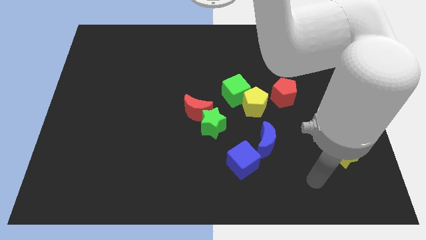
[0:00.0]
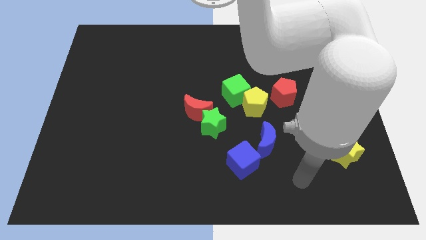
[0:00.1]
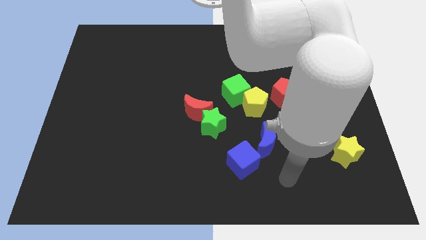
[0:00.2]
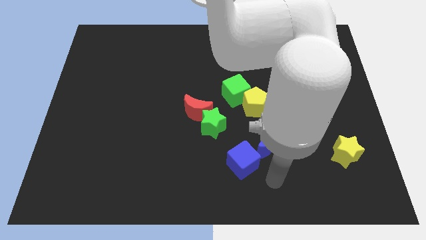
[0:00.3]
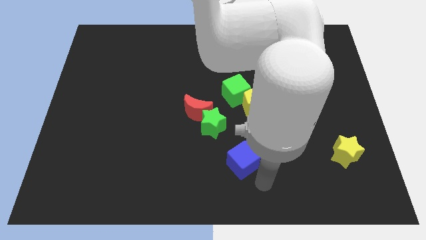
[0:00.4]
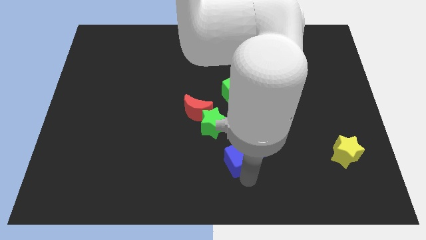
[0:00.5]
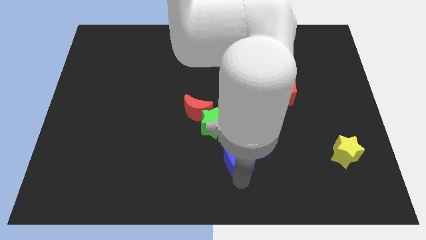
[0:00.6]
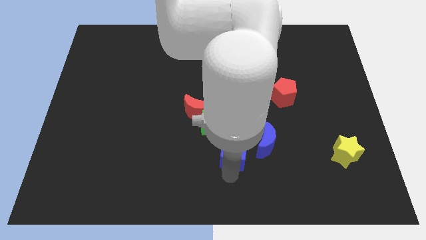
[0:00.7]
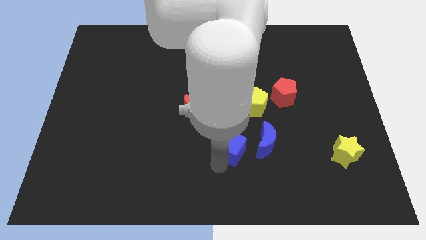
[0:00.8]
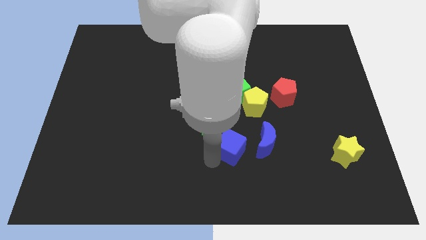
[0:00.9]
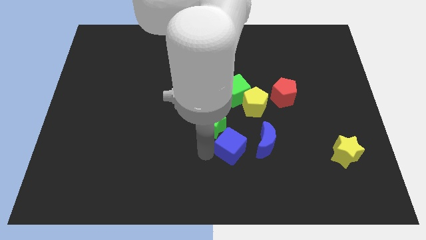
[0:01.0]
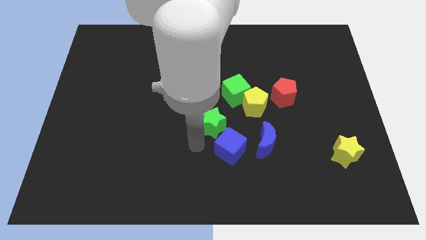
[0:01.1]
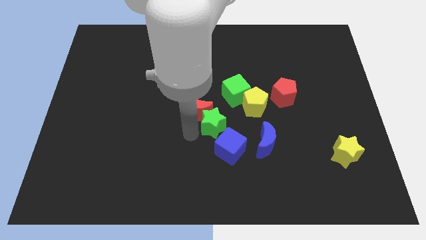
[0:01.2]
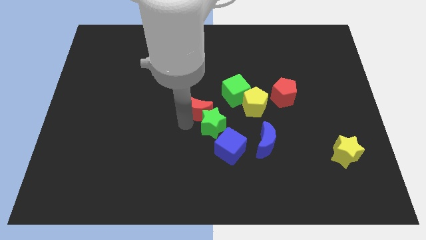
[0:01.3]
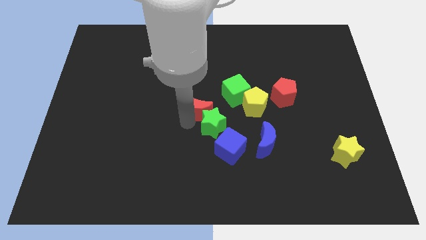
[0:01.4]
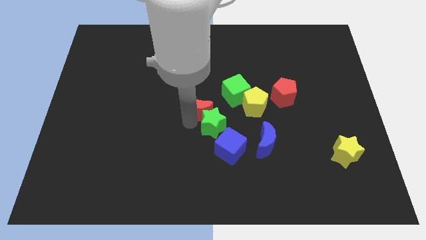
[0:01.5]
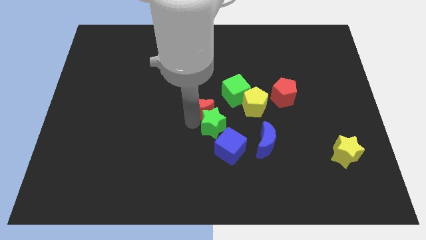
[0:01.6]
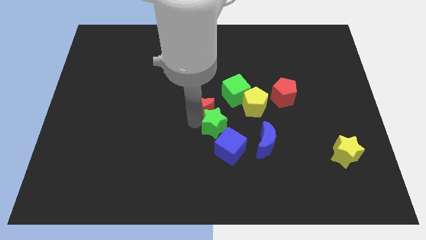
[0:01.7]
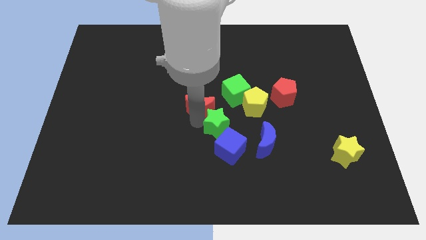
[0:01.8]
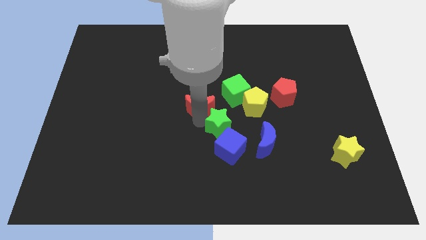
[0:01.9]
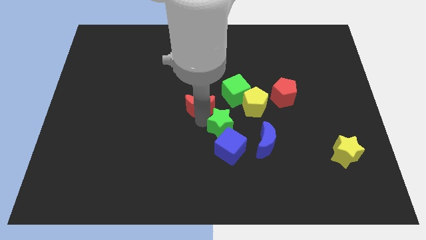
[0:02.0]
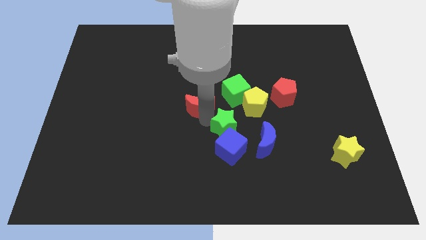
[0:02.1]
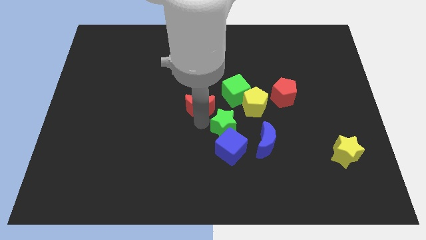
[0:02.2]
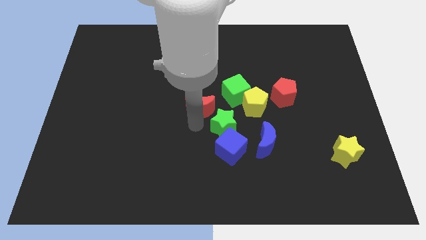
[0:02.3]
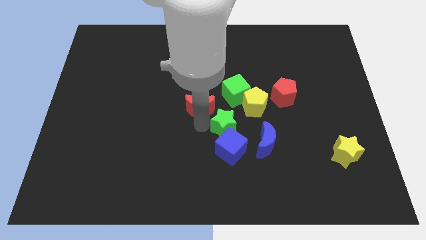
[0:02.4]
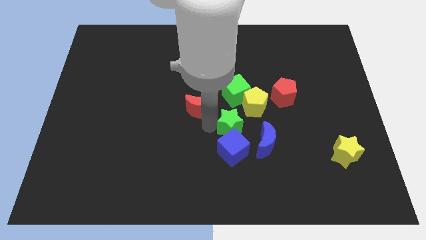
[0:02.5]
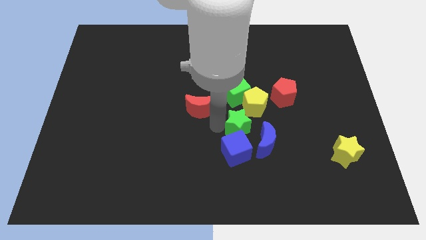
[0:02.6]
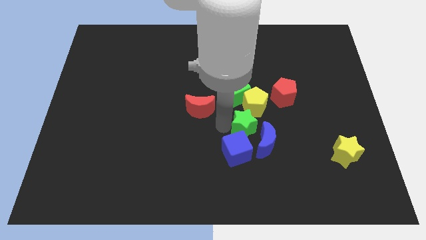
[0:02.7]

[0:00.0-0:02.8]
slightly move the green star right

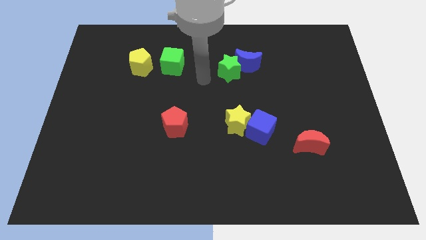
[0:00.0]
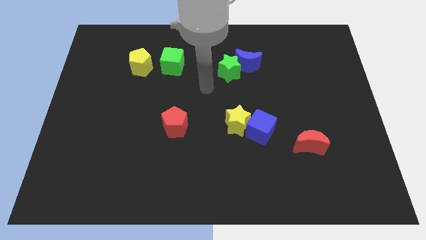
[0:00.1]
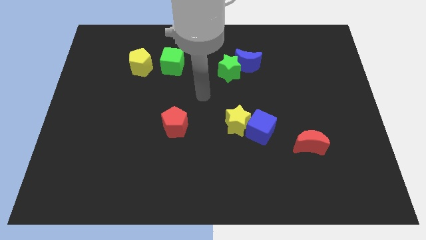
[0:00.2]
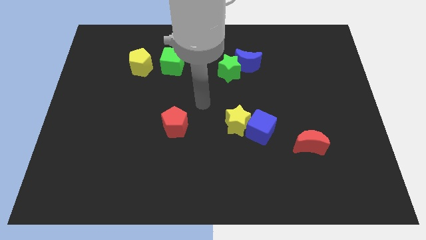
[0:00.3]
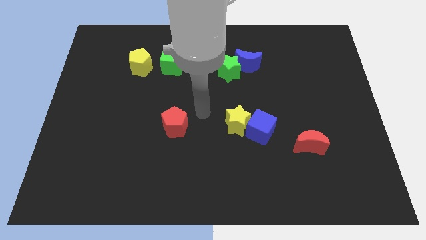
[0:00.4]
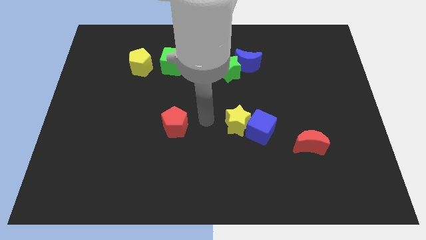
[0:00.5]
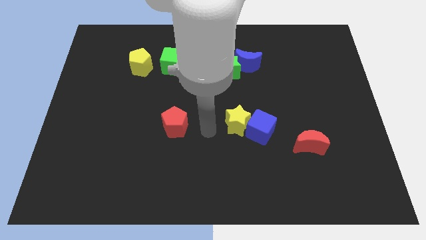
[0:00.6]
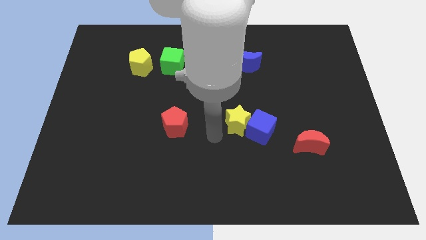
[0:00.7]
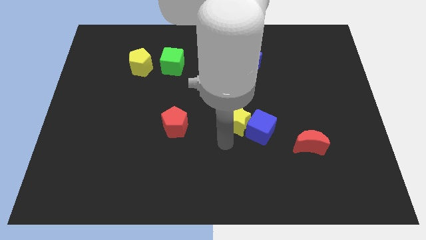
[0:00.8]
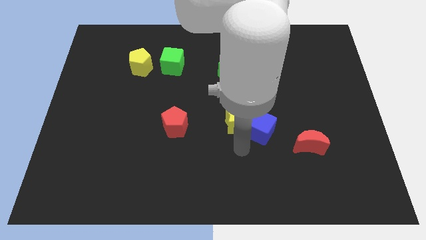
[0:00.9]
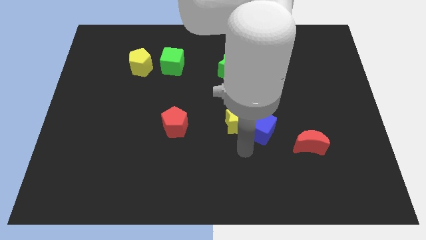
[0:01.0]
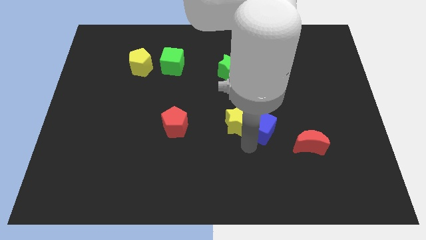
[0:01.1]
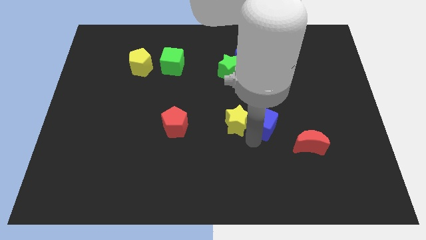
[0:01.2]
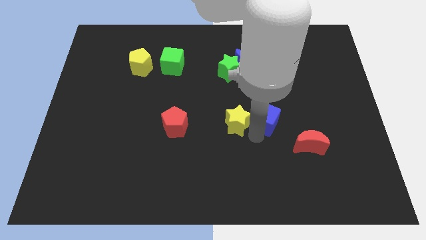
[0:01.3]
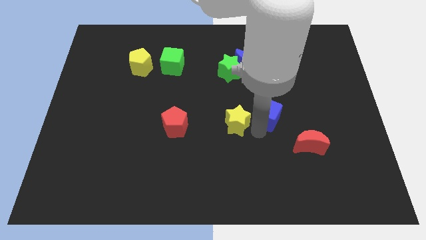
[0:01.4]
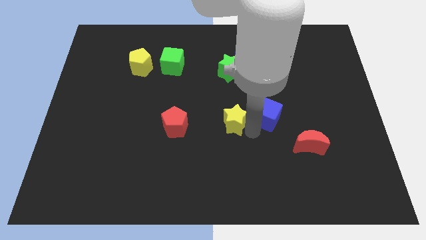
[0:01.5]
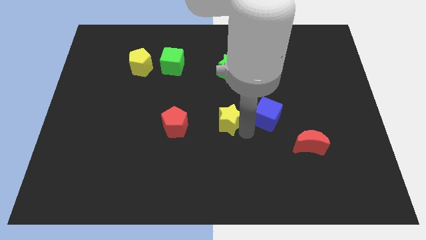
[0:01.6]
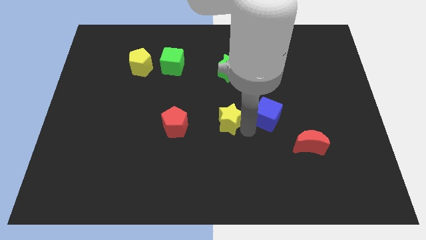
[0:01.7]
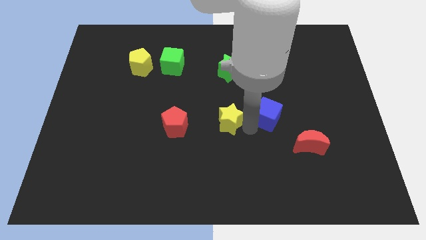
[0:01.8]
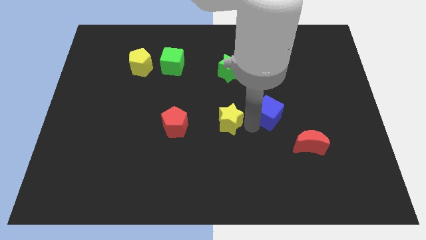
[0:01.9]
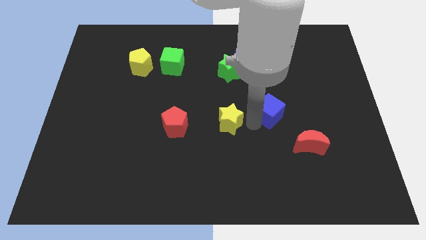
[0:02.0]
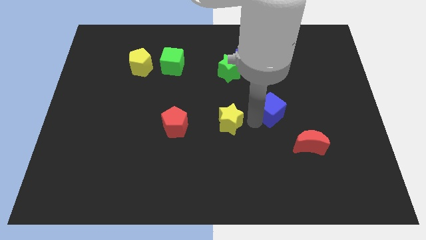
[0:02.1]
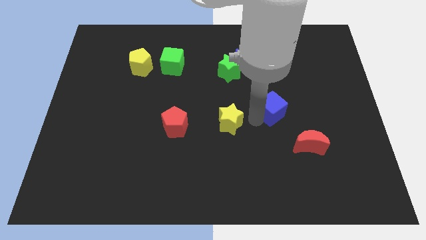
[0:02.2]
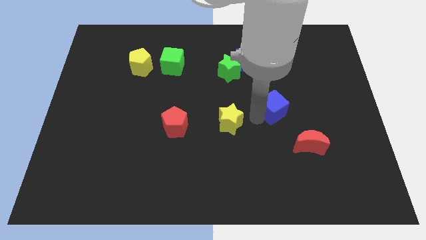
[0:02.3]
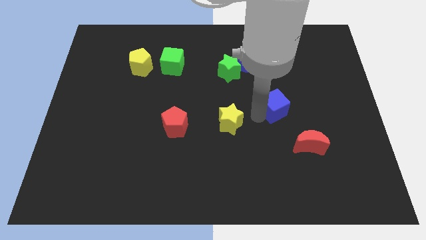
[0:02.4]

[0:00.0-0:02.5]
slide the blue cube a bit upwards and then right

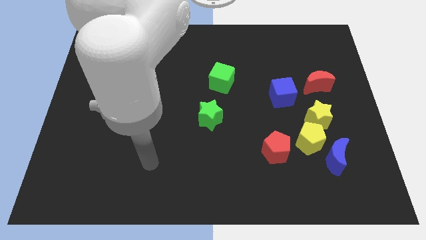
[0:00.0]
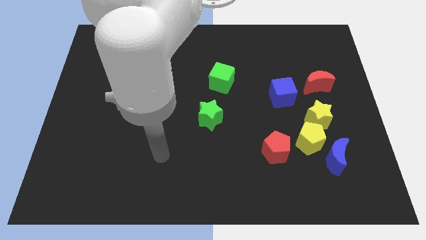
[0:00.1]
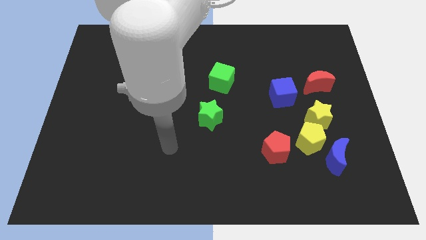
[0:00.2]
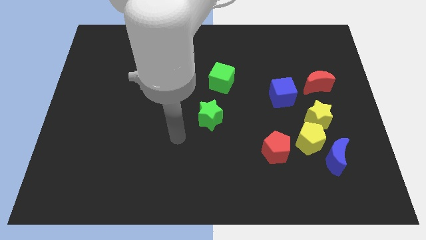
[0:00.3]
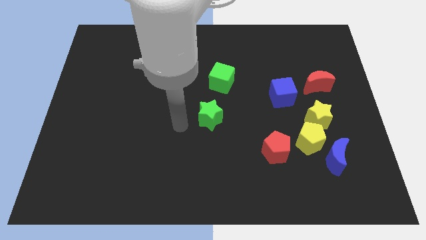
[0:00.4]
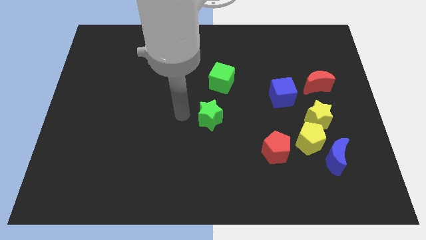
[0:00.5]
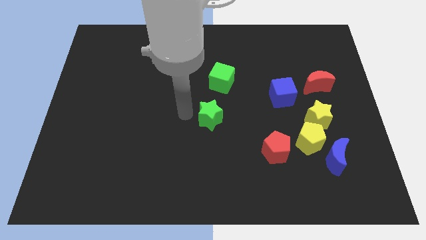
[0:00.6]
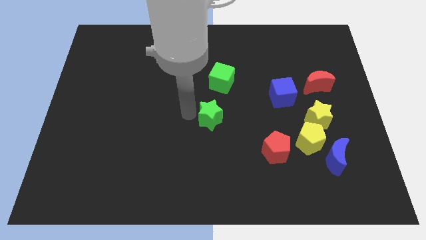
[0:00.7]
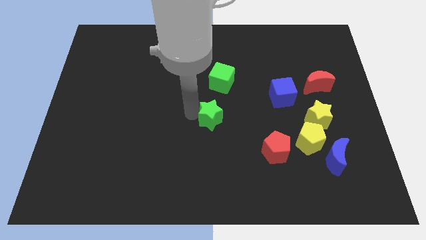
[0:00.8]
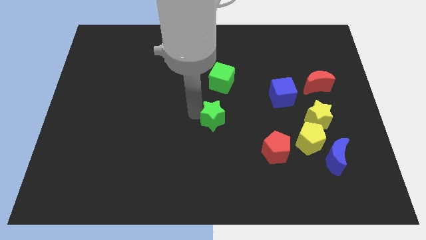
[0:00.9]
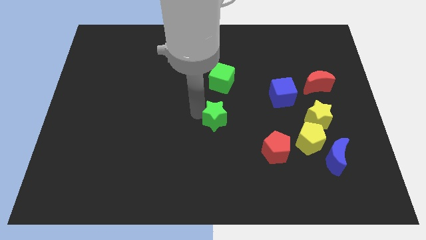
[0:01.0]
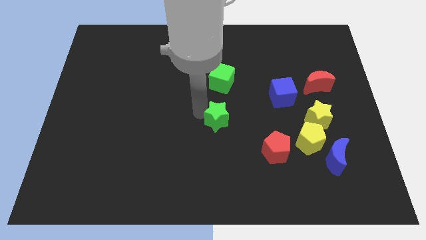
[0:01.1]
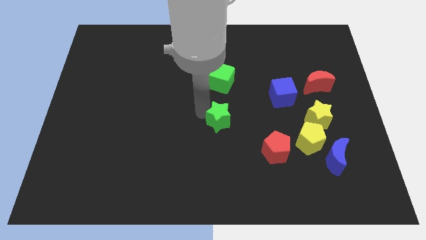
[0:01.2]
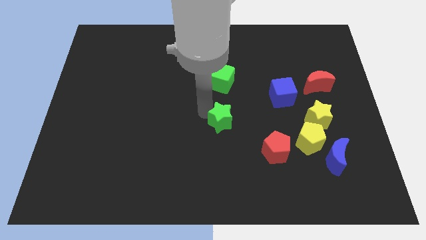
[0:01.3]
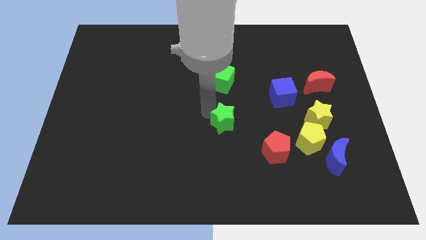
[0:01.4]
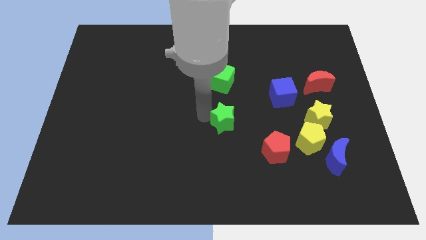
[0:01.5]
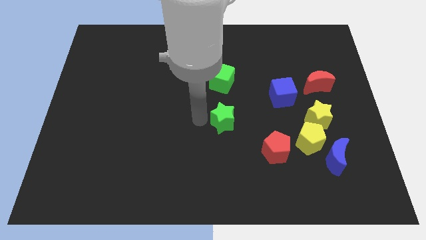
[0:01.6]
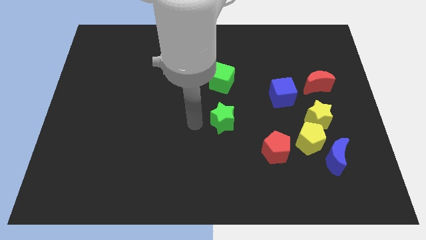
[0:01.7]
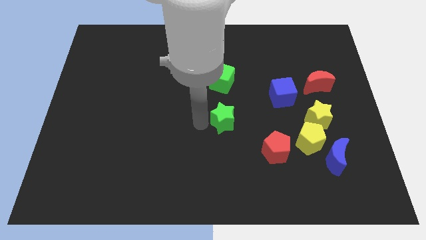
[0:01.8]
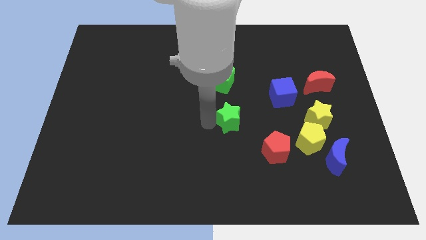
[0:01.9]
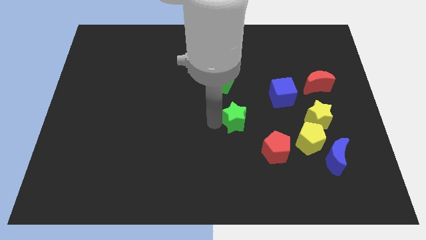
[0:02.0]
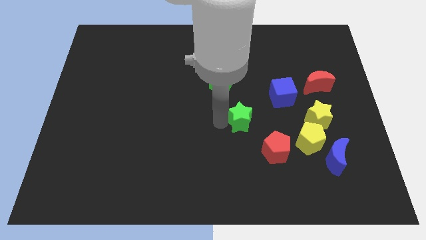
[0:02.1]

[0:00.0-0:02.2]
push the green star to the right a little

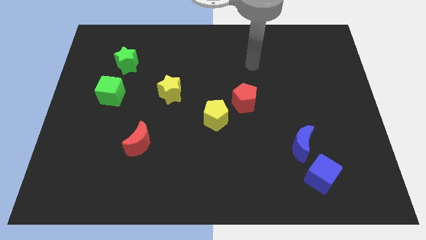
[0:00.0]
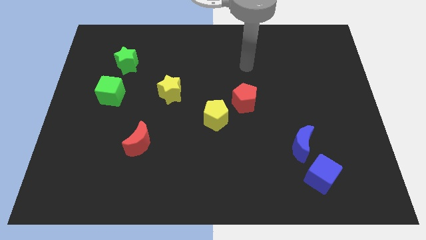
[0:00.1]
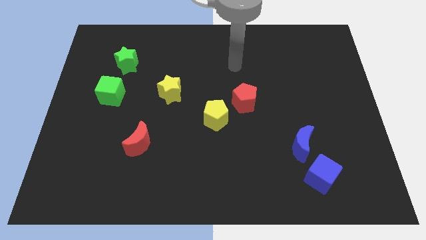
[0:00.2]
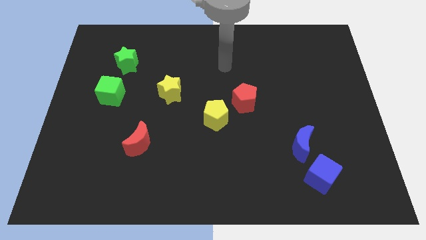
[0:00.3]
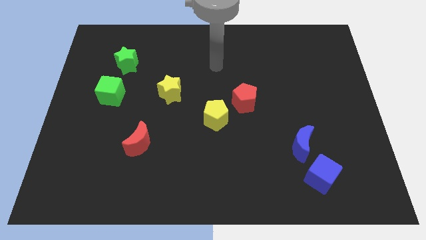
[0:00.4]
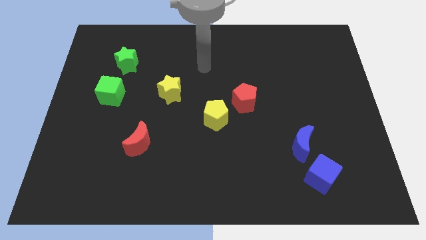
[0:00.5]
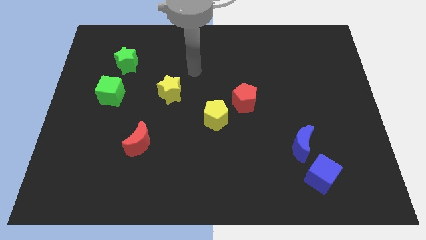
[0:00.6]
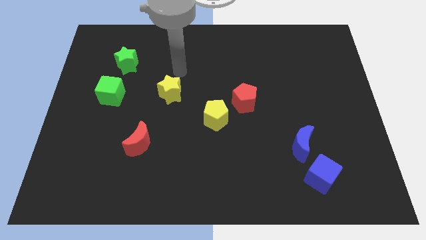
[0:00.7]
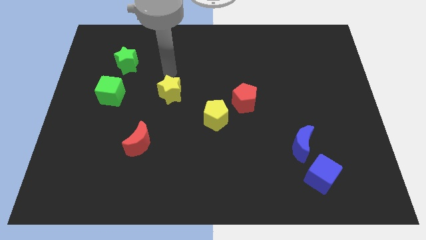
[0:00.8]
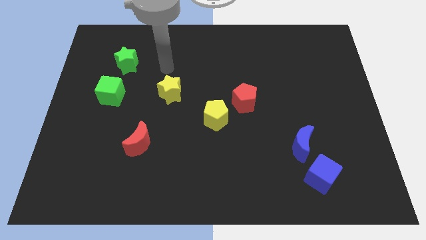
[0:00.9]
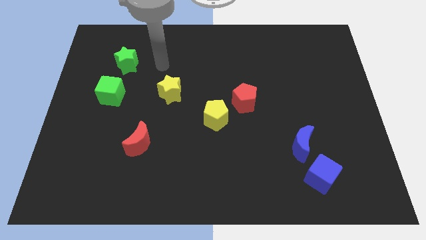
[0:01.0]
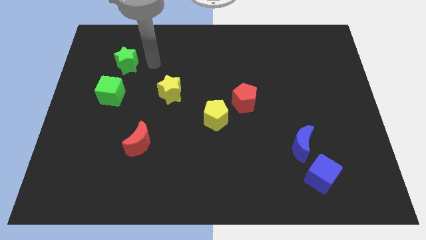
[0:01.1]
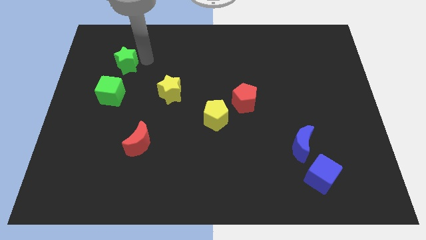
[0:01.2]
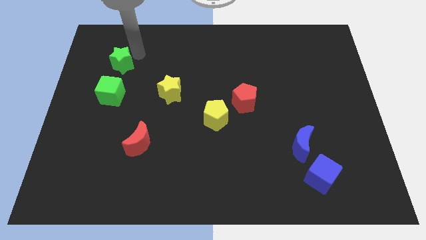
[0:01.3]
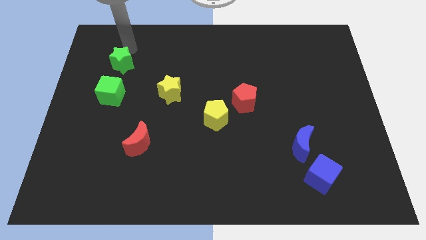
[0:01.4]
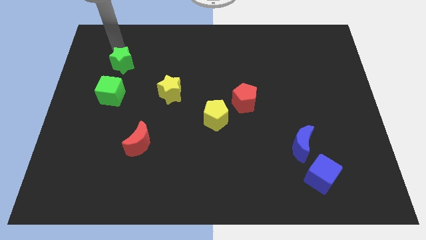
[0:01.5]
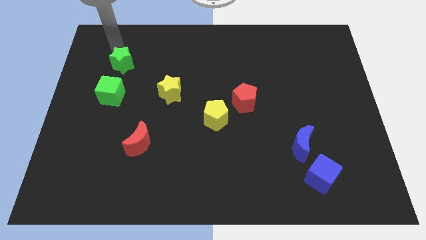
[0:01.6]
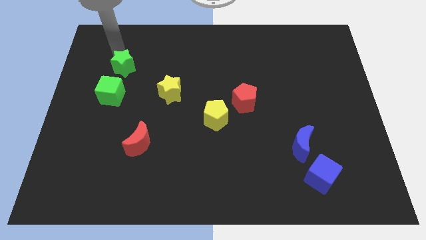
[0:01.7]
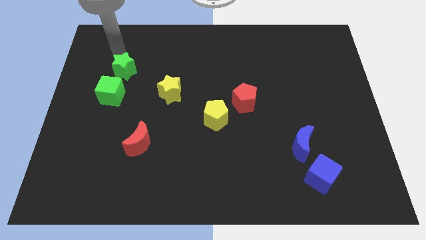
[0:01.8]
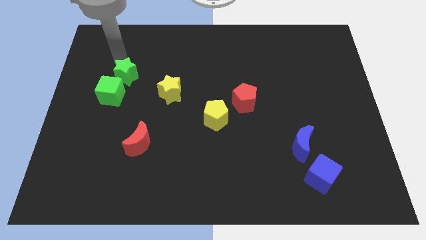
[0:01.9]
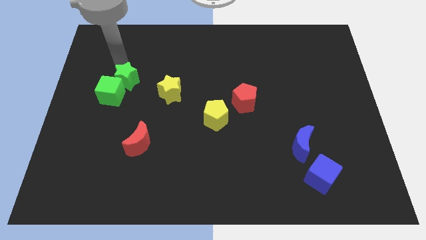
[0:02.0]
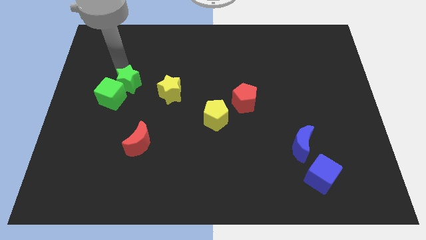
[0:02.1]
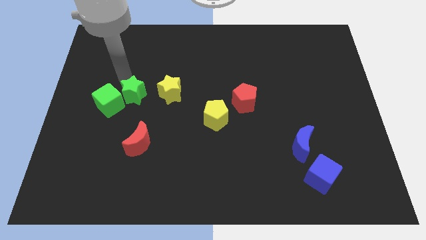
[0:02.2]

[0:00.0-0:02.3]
move the green star slightly diagonally downwards and right
